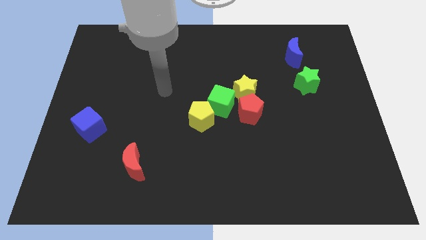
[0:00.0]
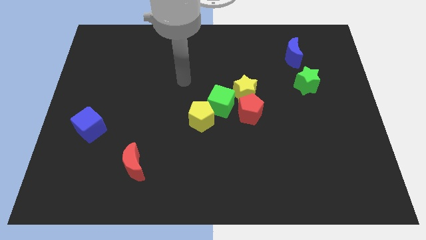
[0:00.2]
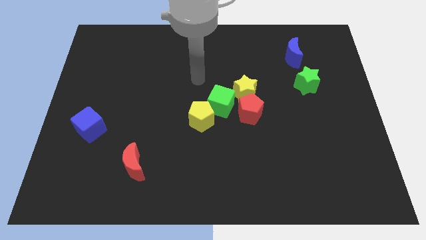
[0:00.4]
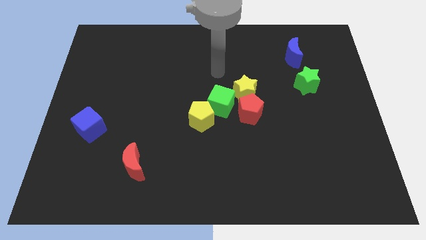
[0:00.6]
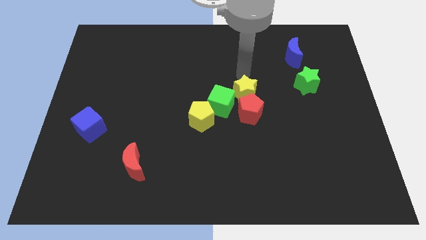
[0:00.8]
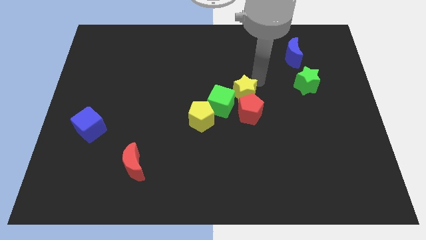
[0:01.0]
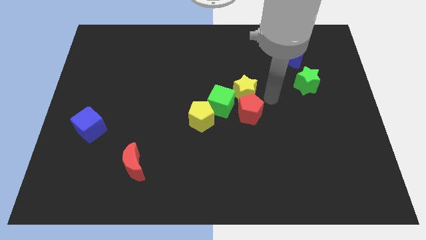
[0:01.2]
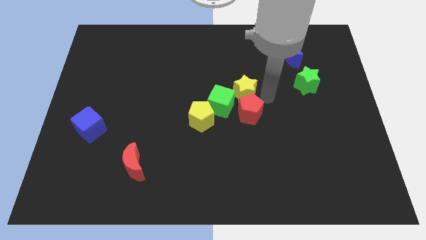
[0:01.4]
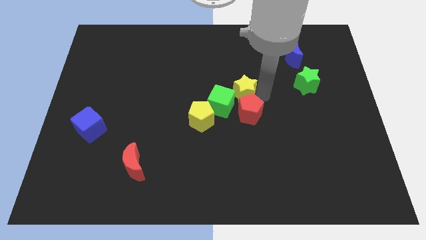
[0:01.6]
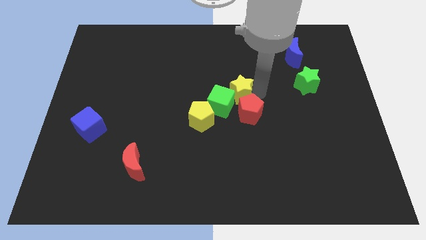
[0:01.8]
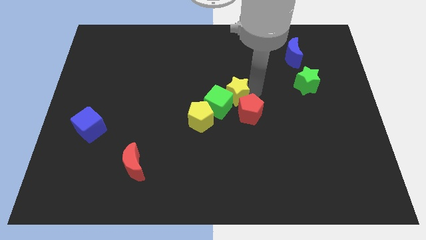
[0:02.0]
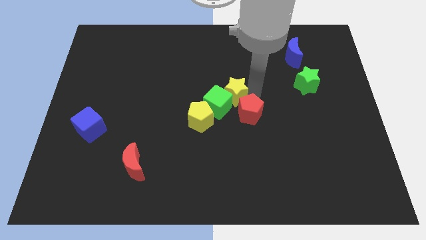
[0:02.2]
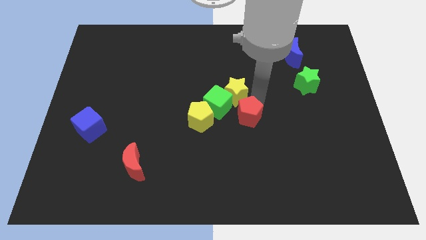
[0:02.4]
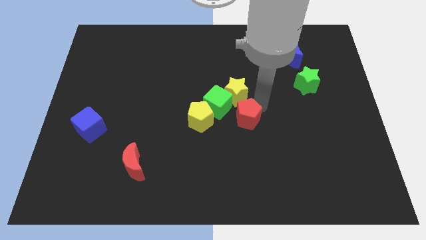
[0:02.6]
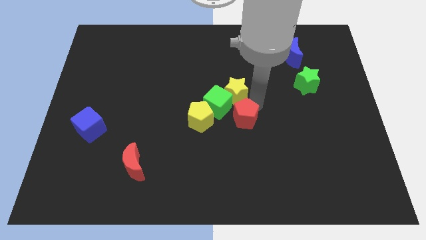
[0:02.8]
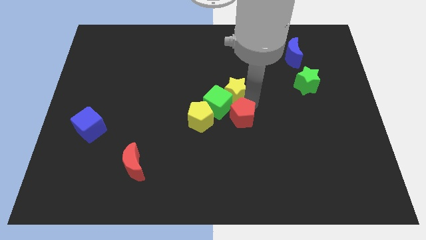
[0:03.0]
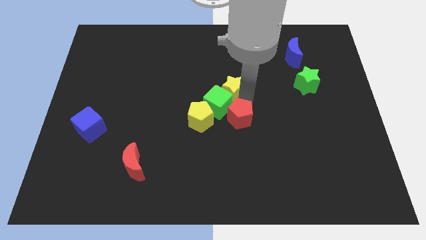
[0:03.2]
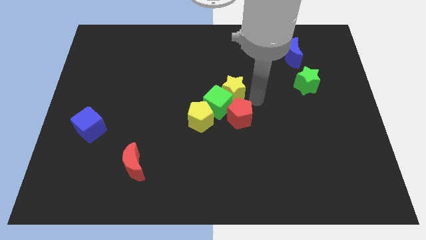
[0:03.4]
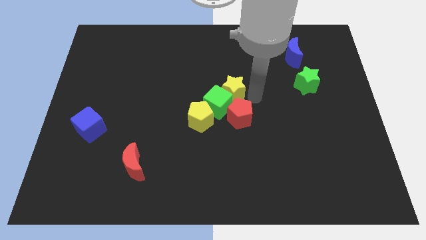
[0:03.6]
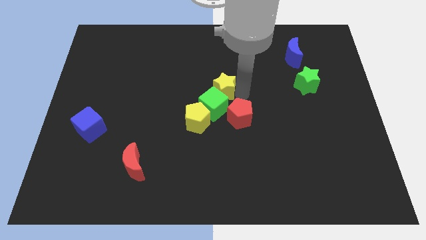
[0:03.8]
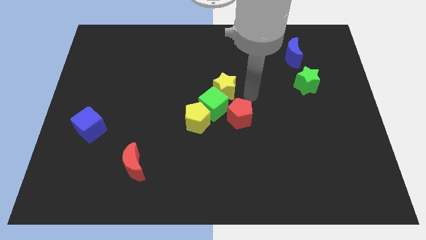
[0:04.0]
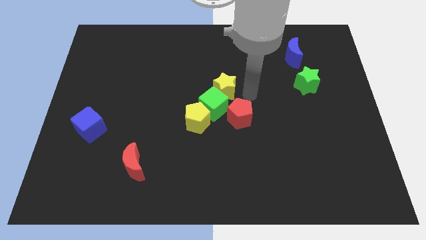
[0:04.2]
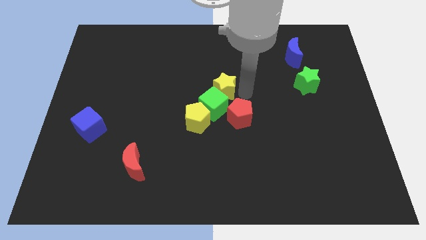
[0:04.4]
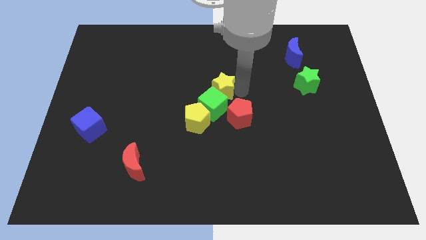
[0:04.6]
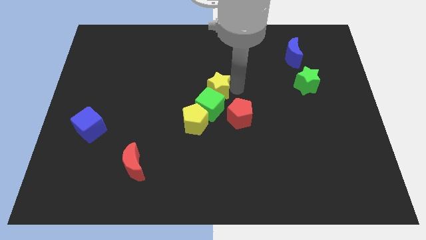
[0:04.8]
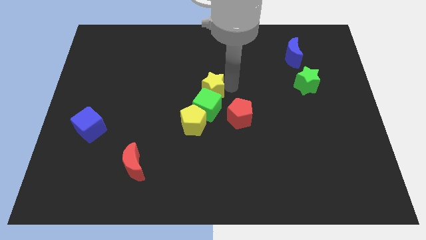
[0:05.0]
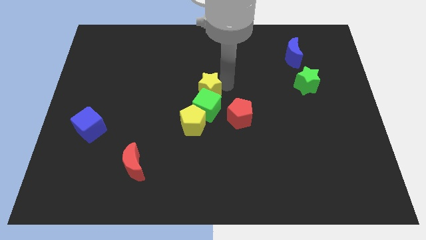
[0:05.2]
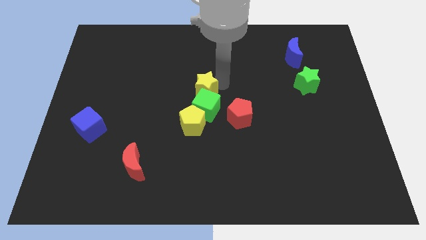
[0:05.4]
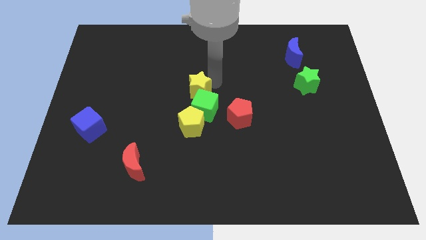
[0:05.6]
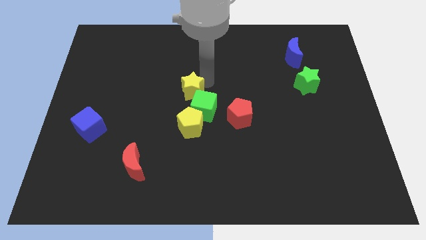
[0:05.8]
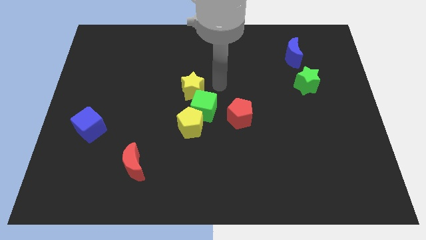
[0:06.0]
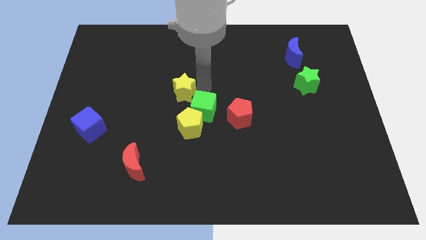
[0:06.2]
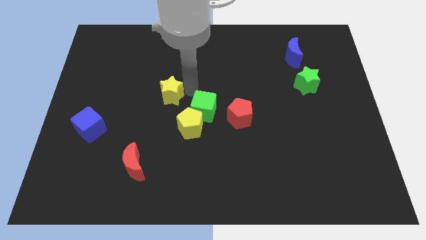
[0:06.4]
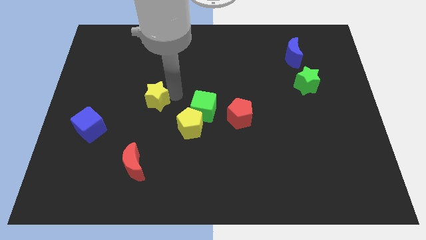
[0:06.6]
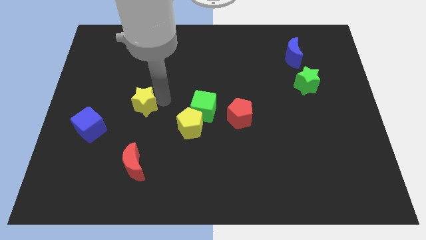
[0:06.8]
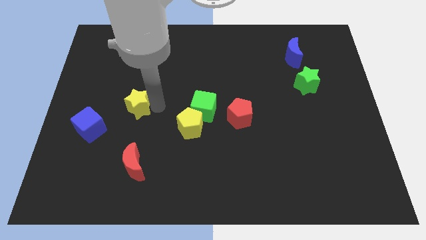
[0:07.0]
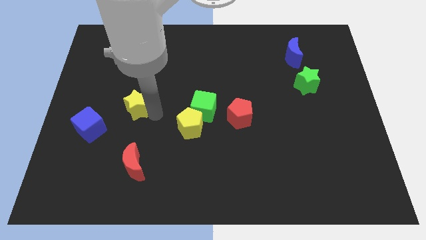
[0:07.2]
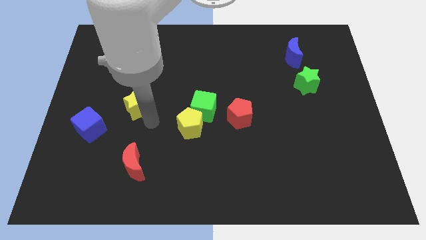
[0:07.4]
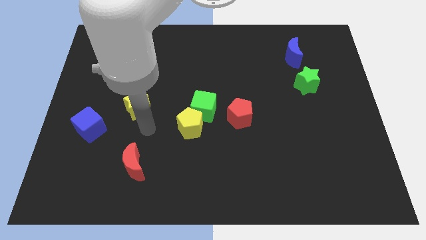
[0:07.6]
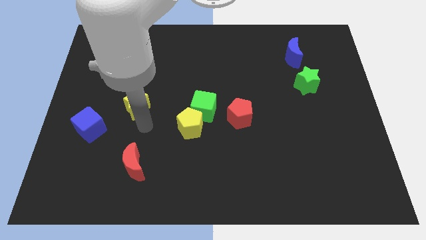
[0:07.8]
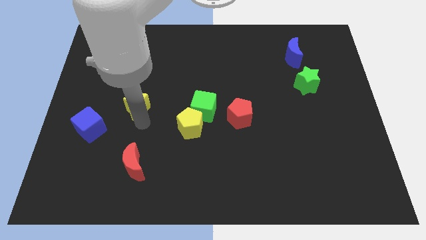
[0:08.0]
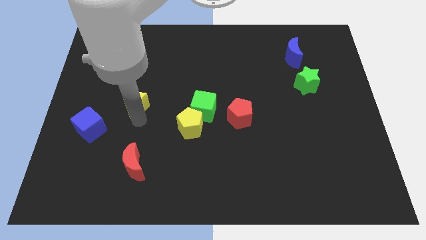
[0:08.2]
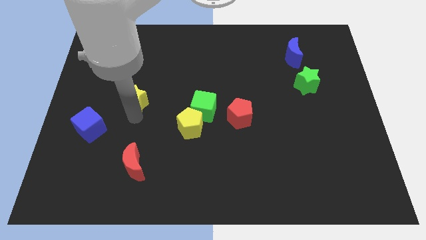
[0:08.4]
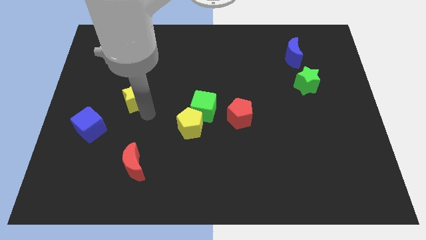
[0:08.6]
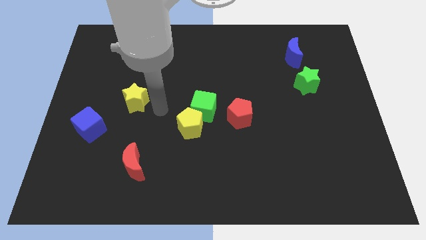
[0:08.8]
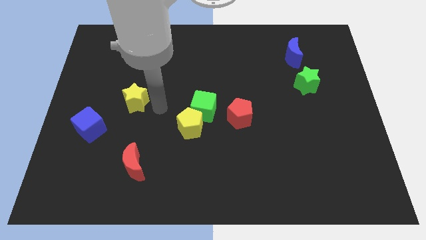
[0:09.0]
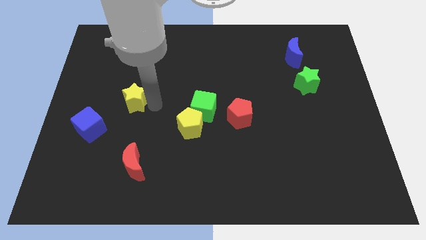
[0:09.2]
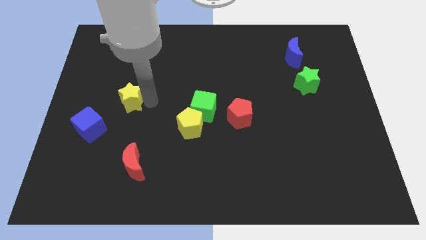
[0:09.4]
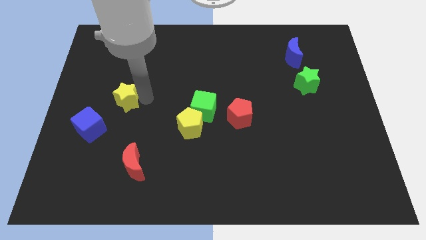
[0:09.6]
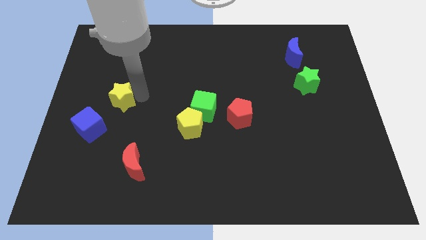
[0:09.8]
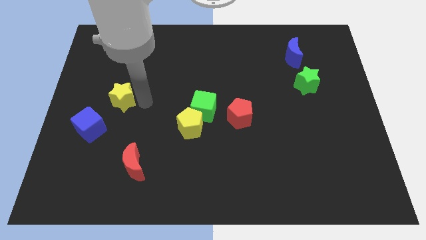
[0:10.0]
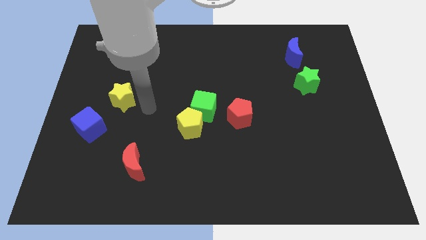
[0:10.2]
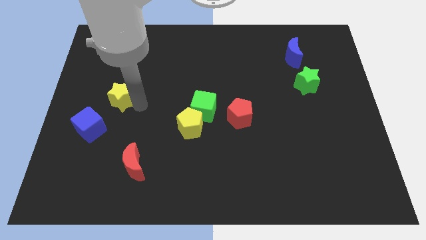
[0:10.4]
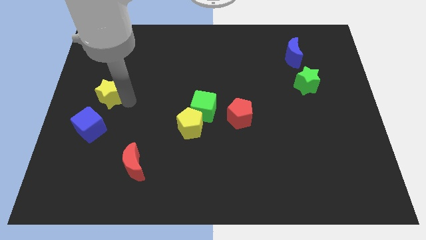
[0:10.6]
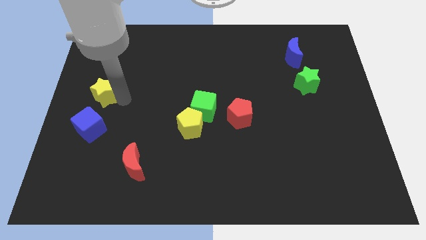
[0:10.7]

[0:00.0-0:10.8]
move the yellow star to the left side of the board

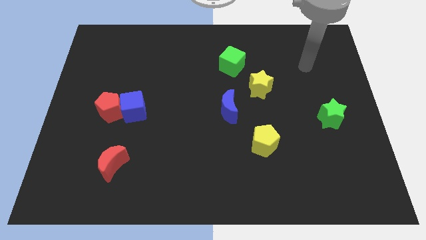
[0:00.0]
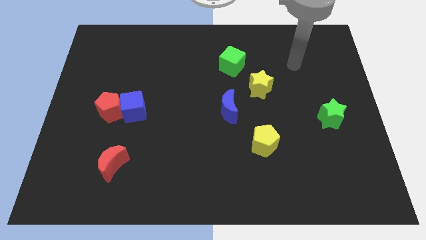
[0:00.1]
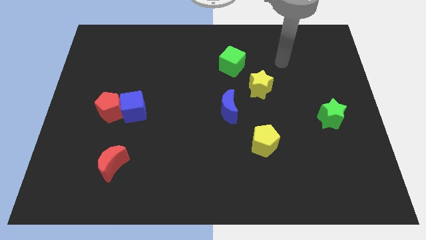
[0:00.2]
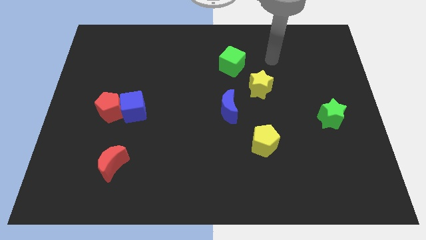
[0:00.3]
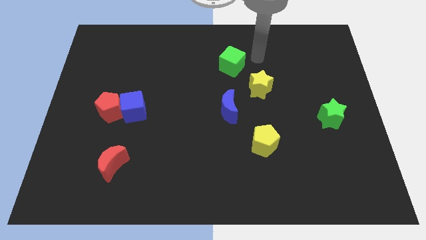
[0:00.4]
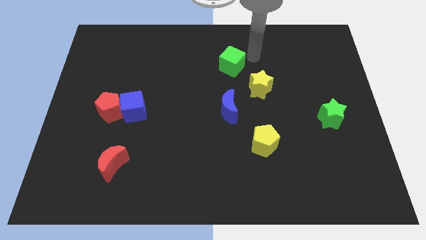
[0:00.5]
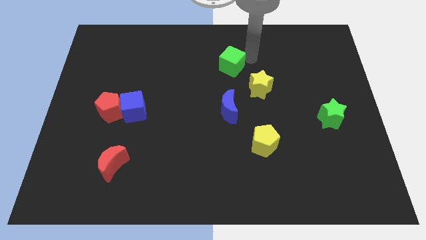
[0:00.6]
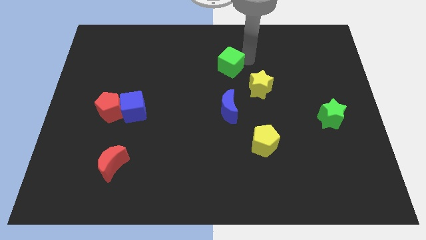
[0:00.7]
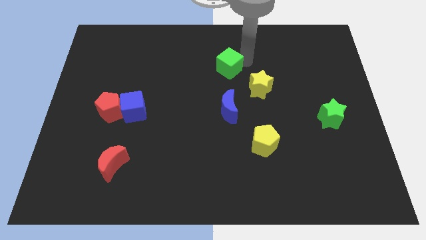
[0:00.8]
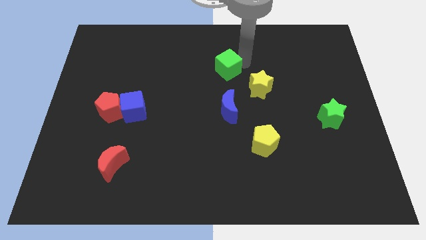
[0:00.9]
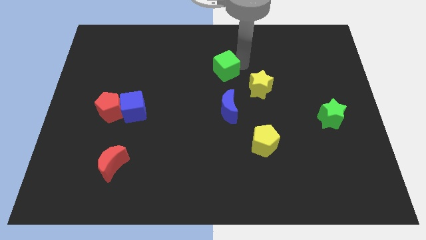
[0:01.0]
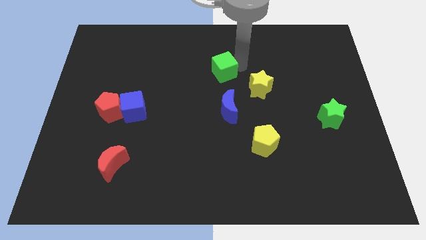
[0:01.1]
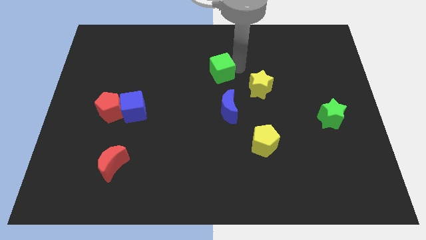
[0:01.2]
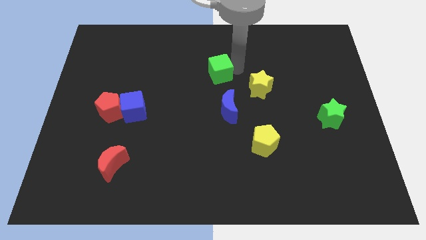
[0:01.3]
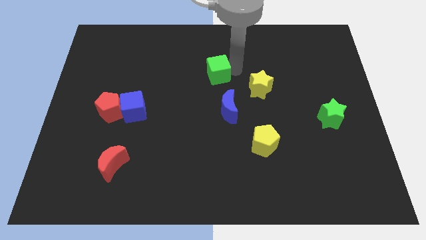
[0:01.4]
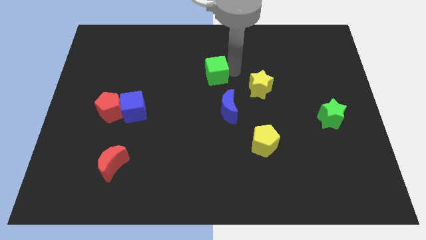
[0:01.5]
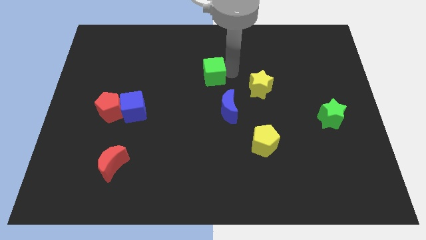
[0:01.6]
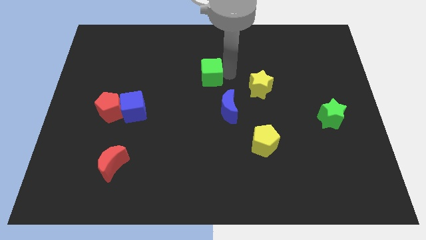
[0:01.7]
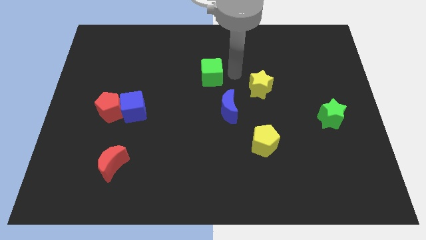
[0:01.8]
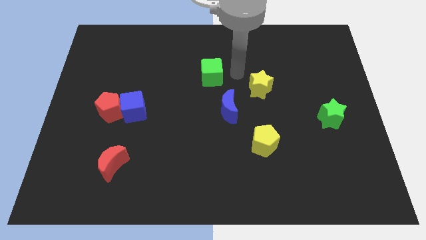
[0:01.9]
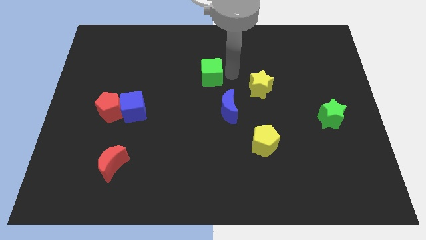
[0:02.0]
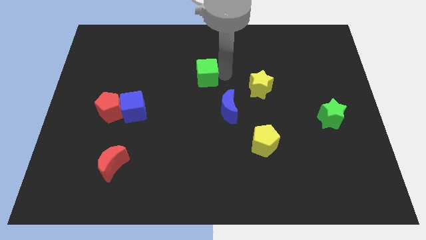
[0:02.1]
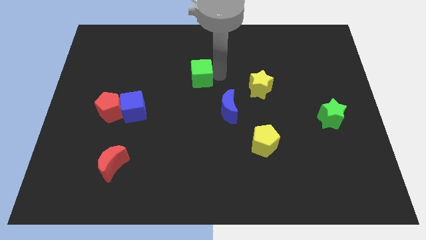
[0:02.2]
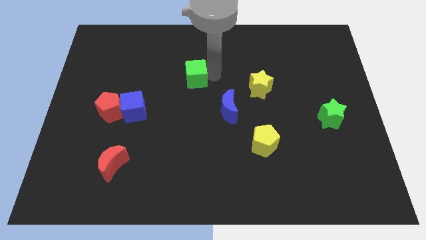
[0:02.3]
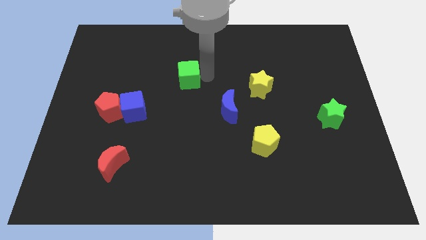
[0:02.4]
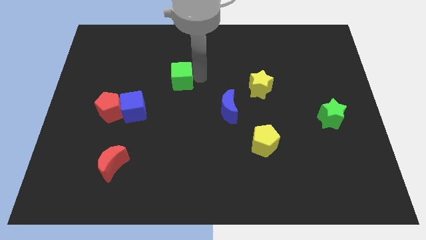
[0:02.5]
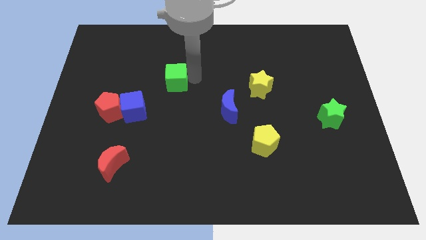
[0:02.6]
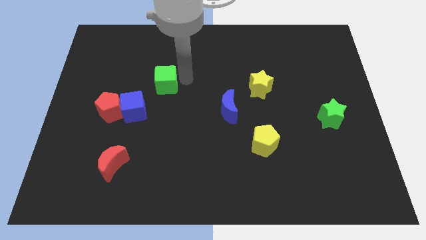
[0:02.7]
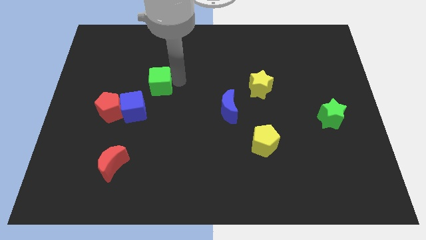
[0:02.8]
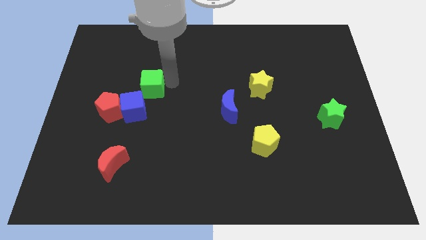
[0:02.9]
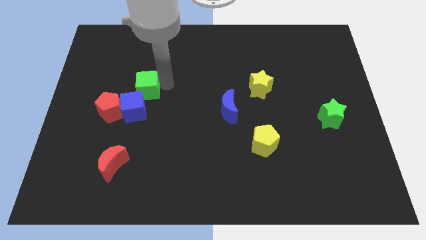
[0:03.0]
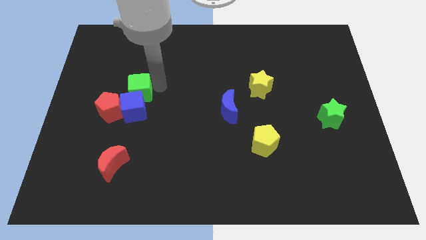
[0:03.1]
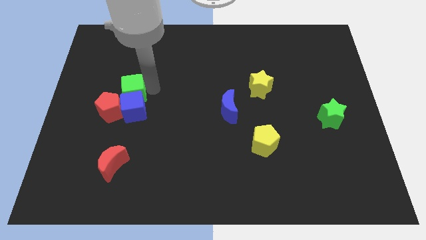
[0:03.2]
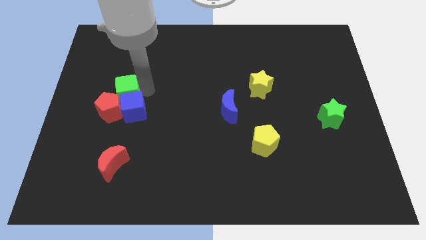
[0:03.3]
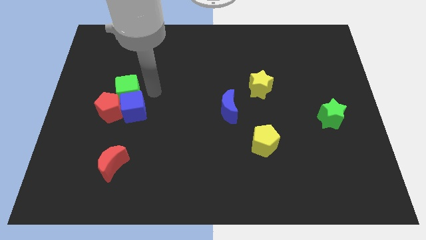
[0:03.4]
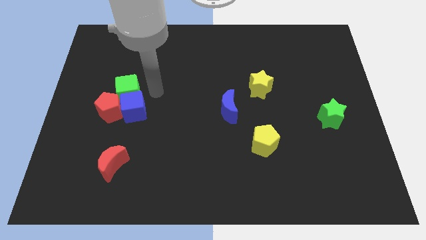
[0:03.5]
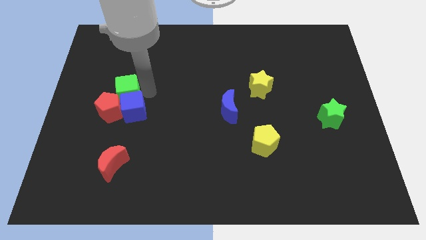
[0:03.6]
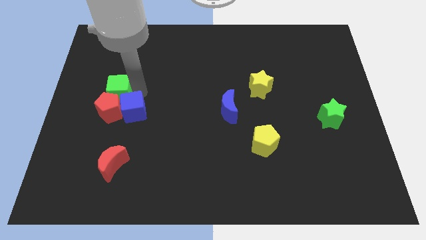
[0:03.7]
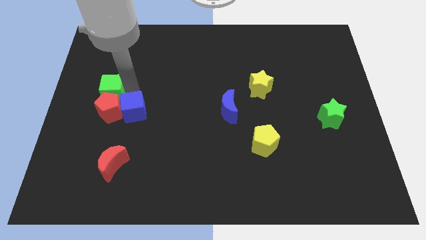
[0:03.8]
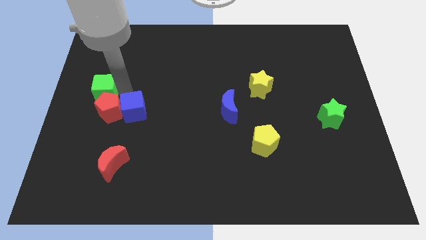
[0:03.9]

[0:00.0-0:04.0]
push the green cube to the center left
